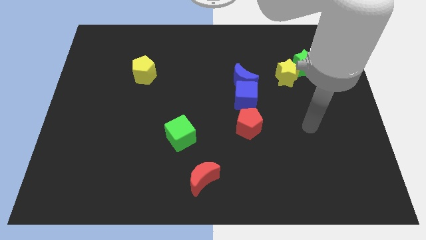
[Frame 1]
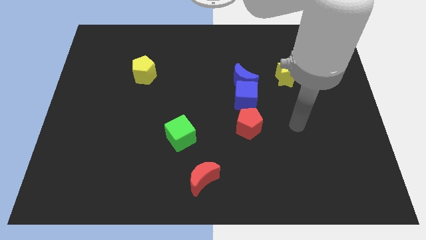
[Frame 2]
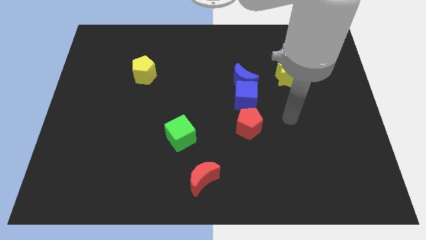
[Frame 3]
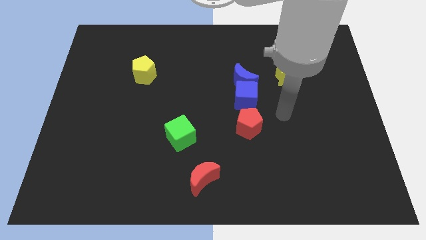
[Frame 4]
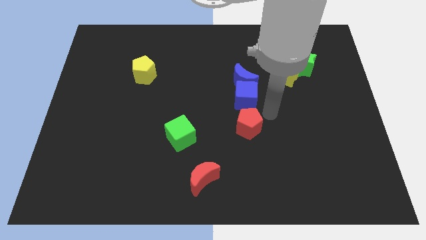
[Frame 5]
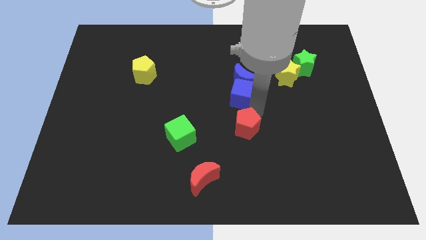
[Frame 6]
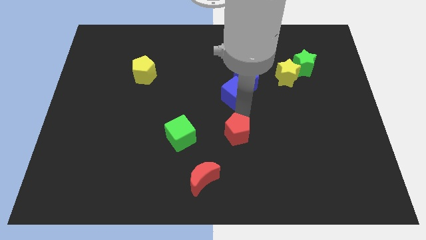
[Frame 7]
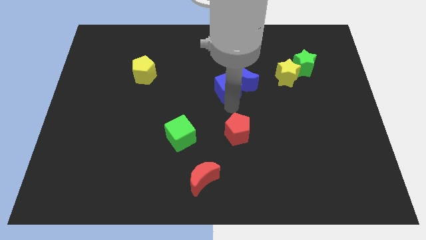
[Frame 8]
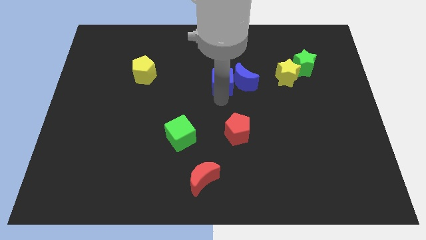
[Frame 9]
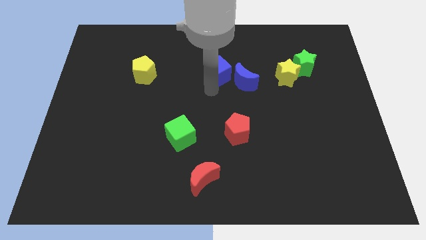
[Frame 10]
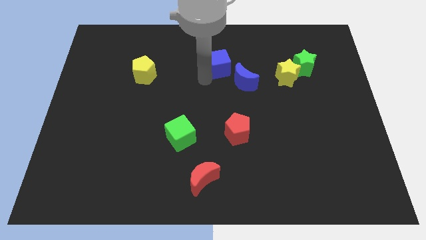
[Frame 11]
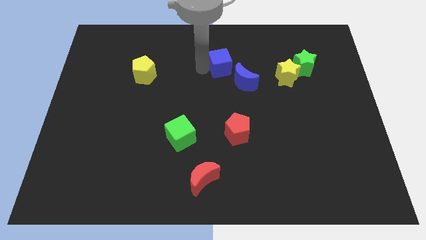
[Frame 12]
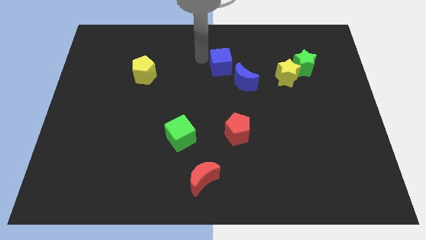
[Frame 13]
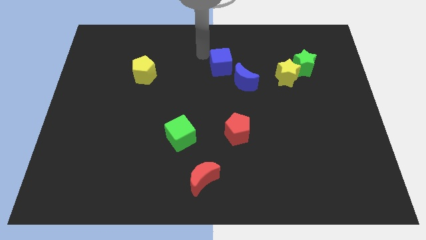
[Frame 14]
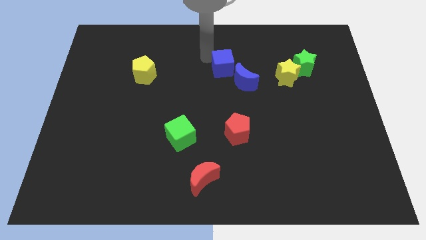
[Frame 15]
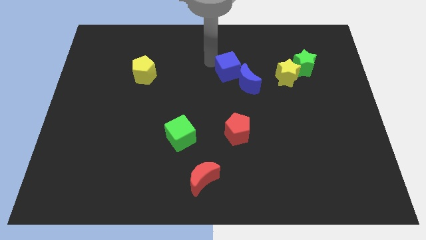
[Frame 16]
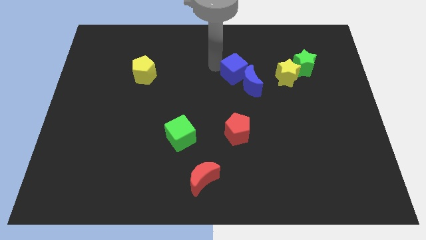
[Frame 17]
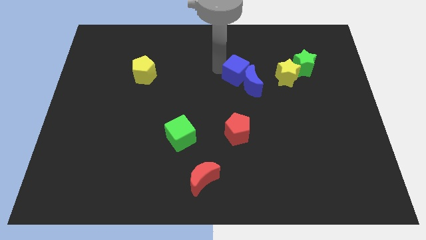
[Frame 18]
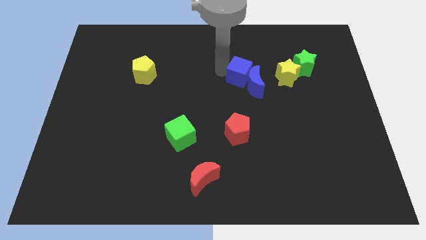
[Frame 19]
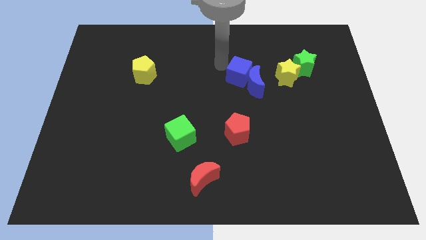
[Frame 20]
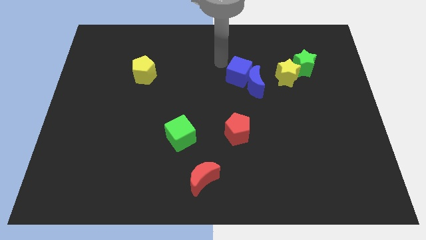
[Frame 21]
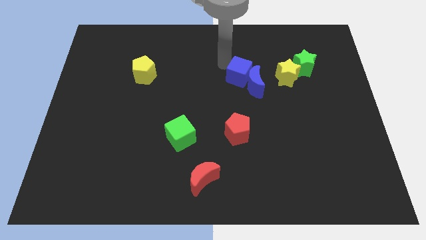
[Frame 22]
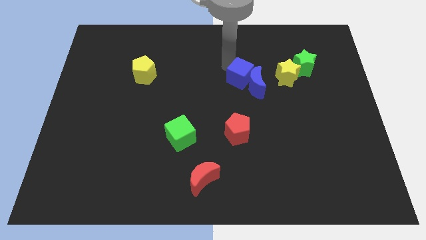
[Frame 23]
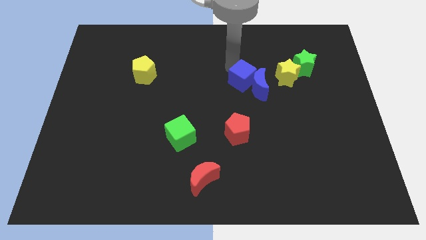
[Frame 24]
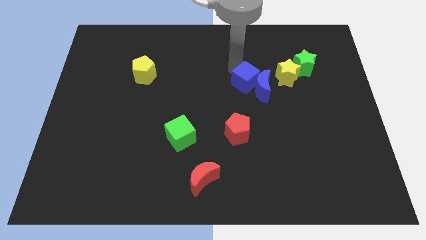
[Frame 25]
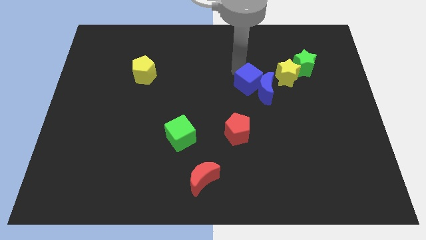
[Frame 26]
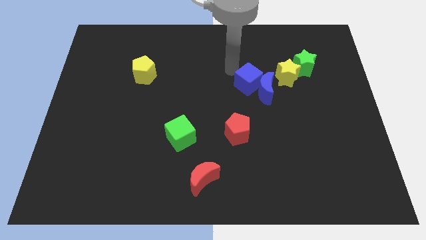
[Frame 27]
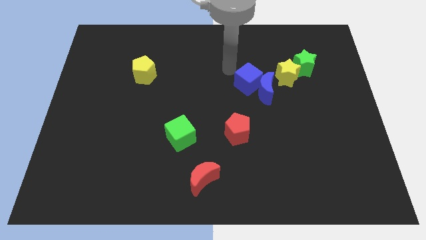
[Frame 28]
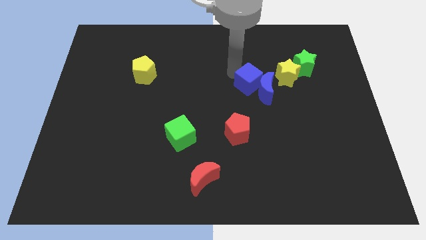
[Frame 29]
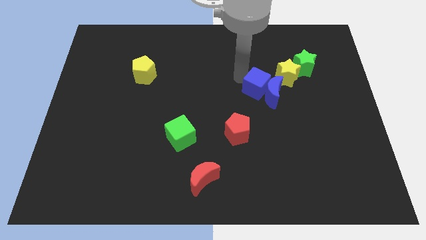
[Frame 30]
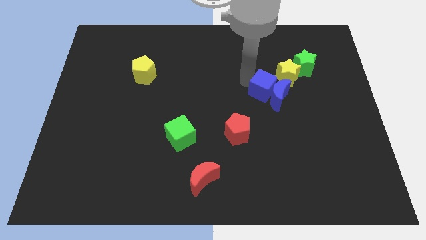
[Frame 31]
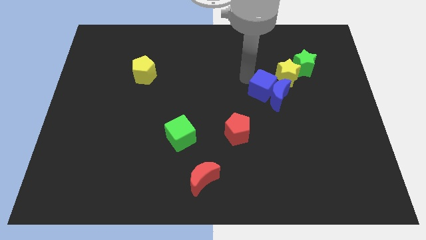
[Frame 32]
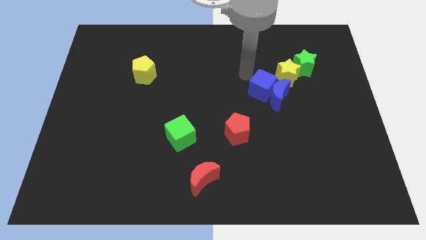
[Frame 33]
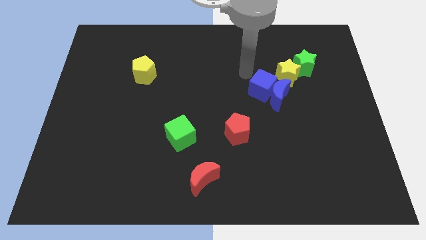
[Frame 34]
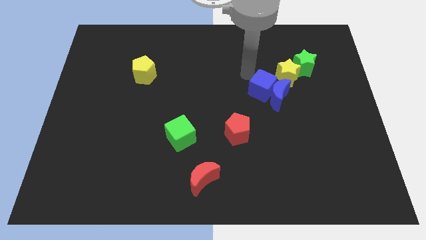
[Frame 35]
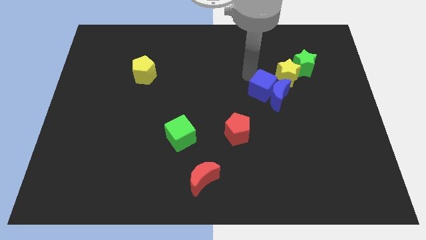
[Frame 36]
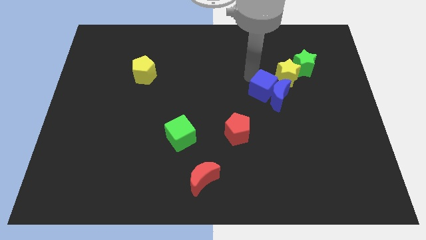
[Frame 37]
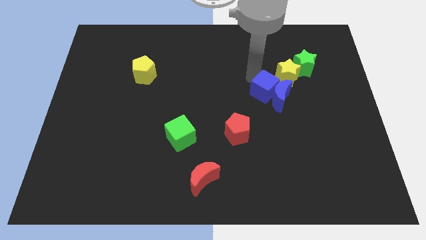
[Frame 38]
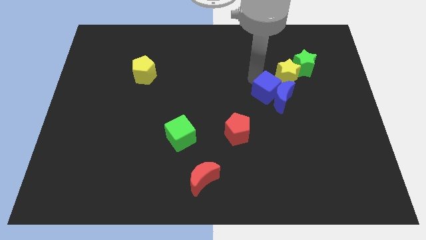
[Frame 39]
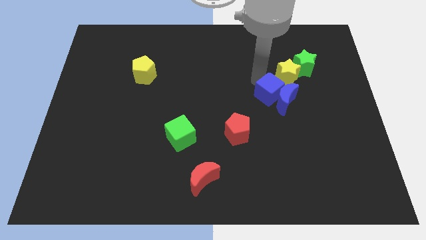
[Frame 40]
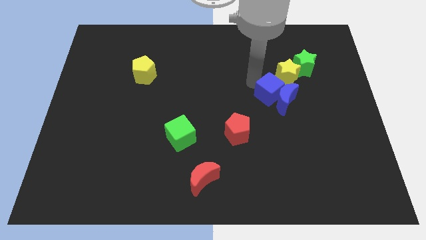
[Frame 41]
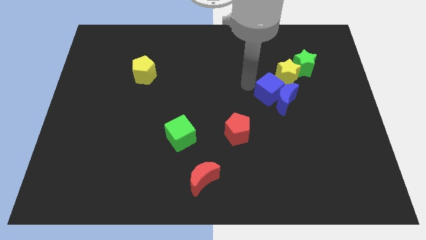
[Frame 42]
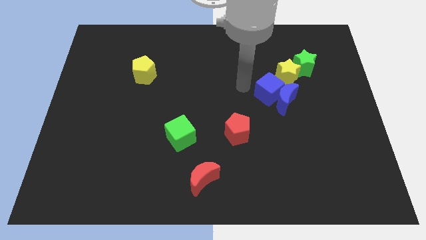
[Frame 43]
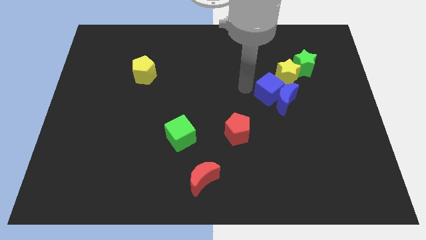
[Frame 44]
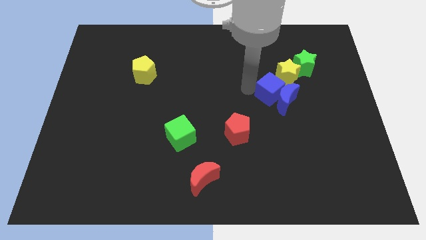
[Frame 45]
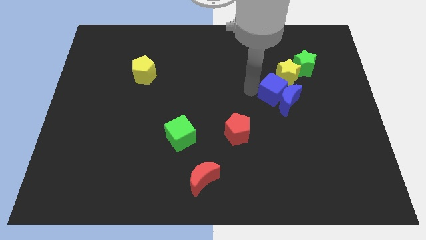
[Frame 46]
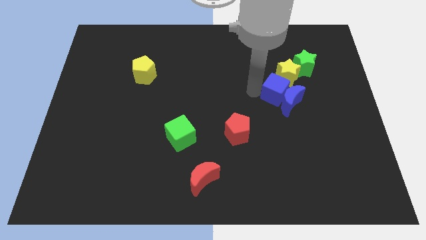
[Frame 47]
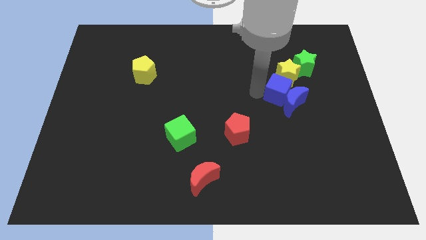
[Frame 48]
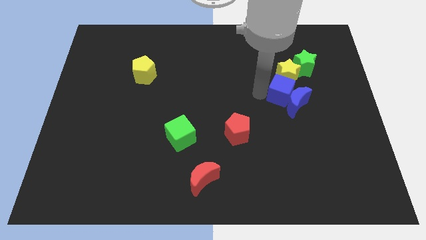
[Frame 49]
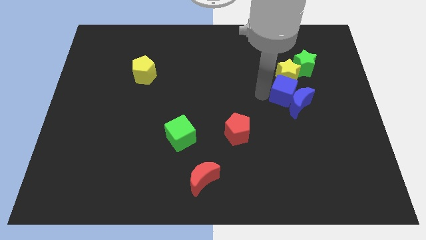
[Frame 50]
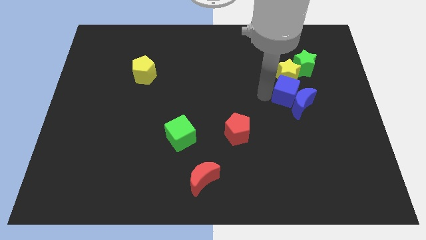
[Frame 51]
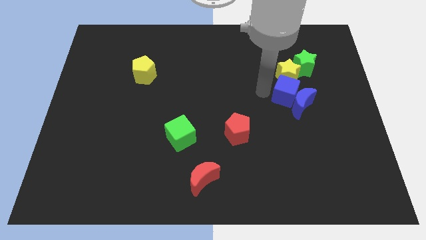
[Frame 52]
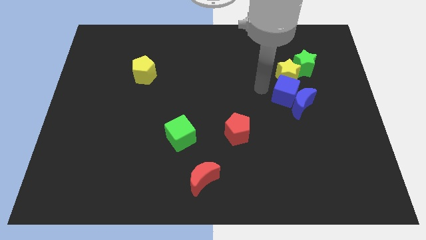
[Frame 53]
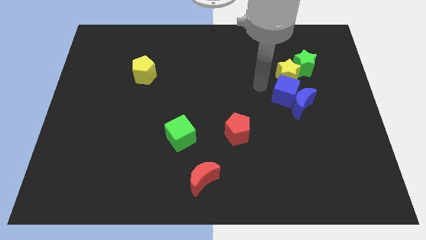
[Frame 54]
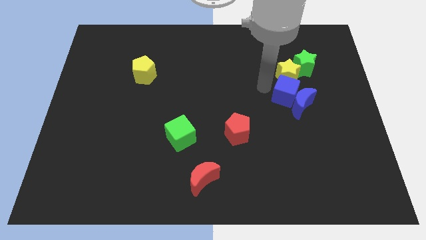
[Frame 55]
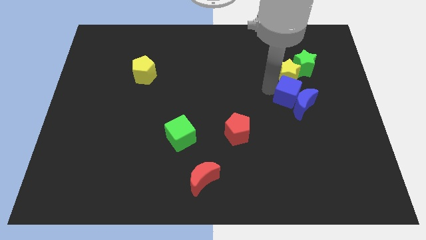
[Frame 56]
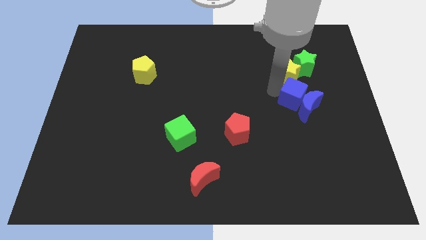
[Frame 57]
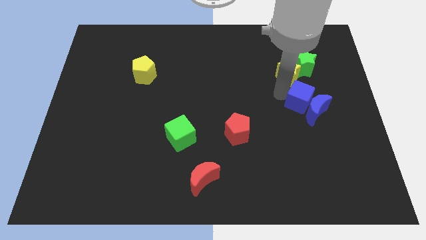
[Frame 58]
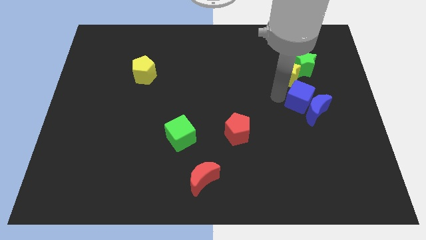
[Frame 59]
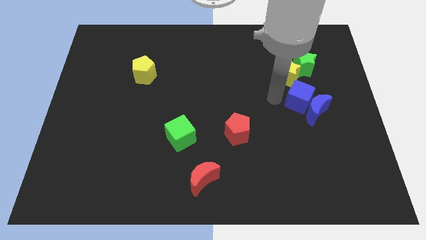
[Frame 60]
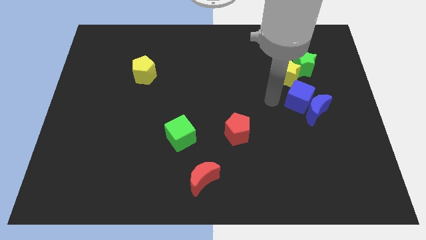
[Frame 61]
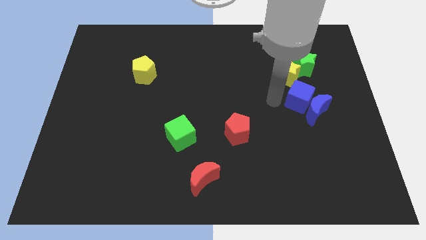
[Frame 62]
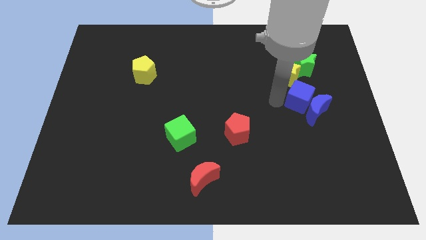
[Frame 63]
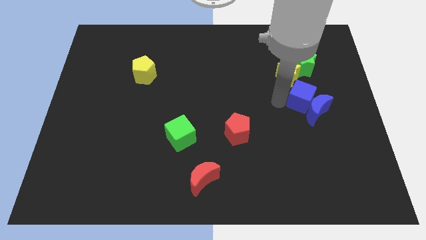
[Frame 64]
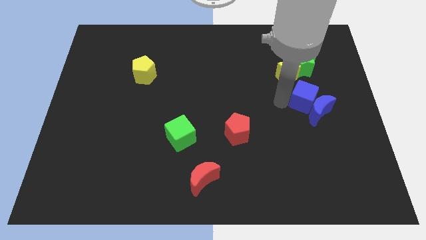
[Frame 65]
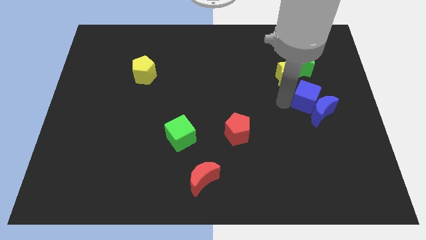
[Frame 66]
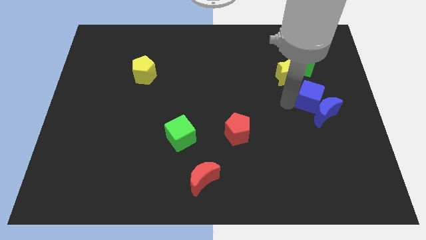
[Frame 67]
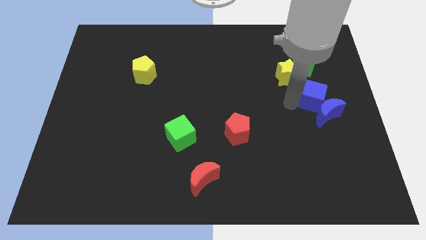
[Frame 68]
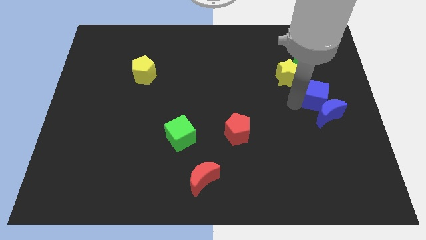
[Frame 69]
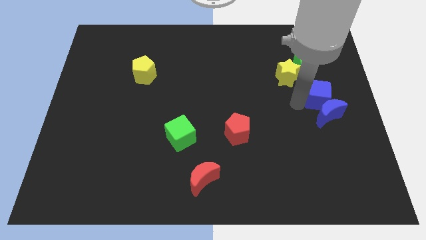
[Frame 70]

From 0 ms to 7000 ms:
put the blue cube to the right side
